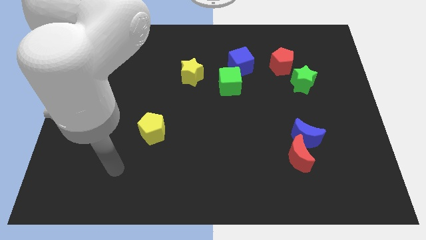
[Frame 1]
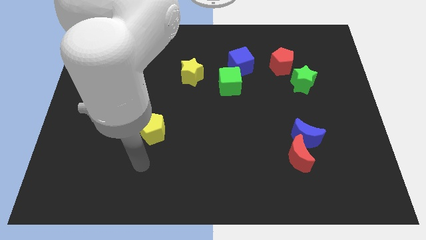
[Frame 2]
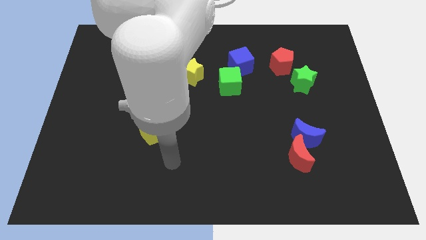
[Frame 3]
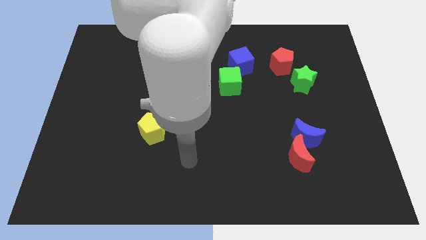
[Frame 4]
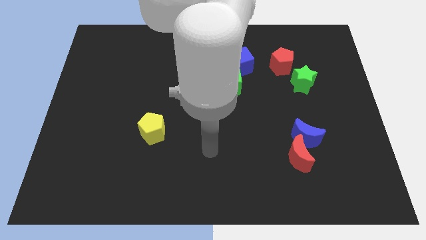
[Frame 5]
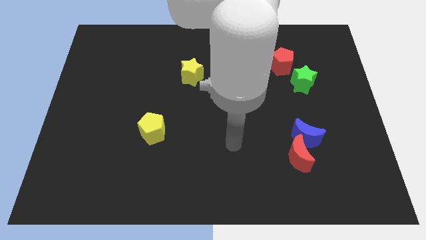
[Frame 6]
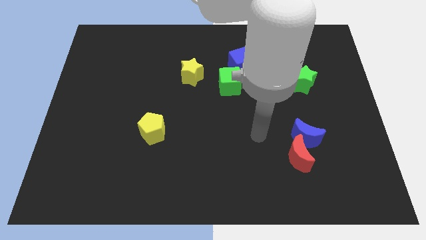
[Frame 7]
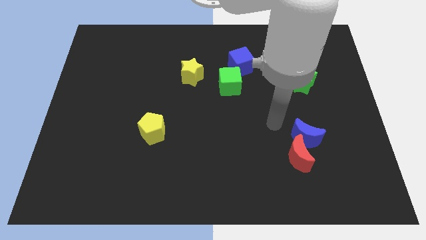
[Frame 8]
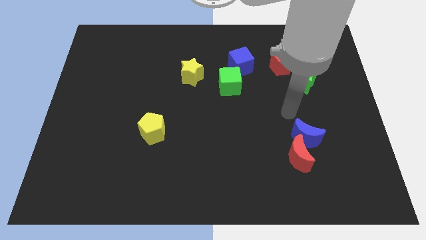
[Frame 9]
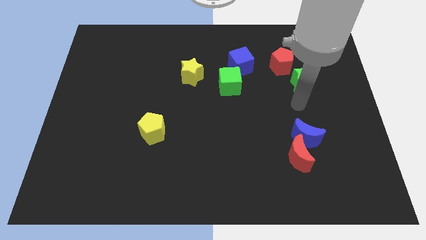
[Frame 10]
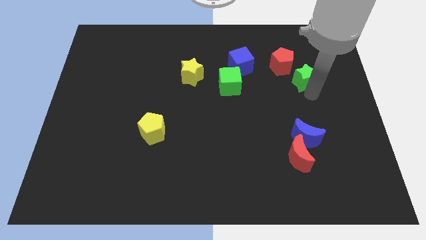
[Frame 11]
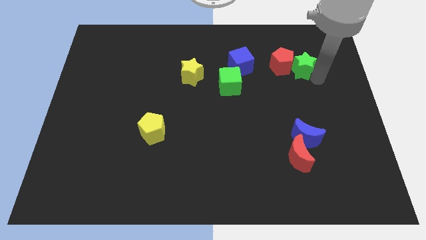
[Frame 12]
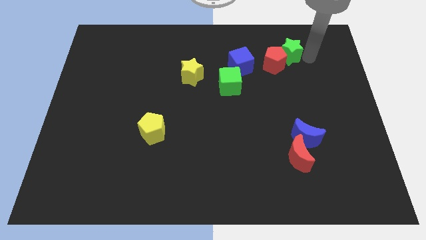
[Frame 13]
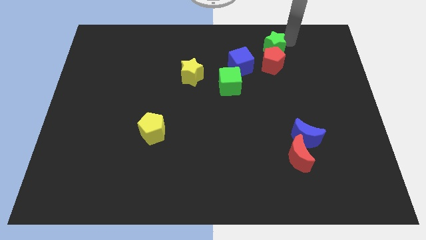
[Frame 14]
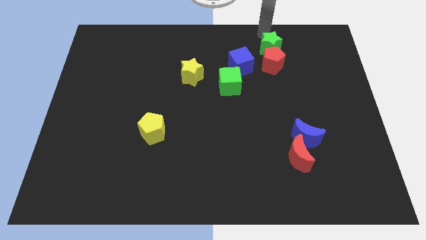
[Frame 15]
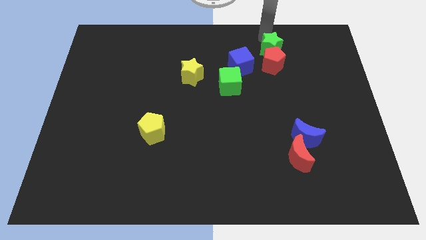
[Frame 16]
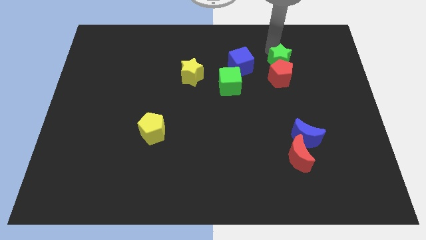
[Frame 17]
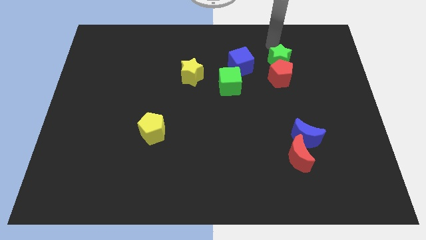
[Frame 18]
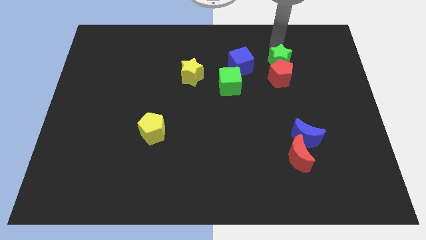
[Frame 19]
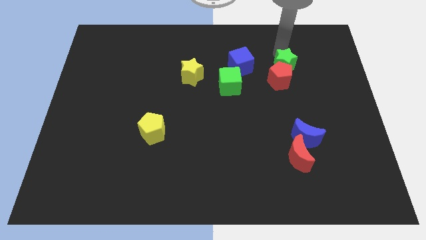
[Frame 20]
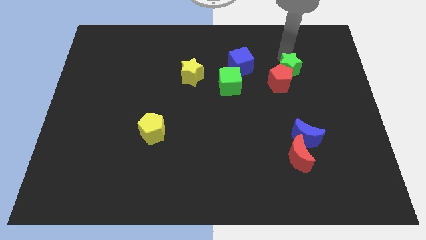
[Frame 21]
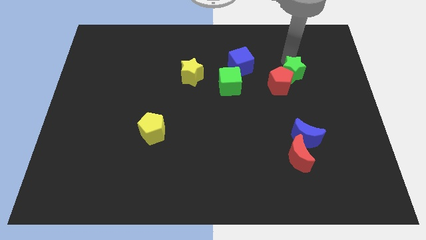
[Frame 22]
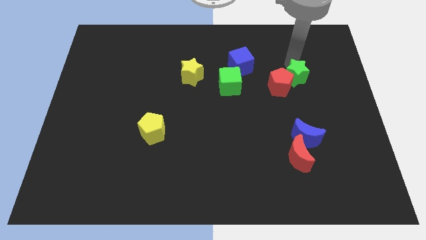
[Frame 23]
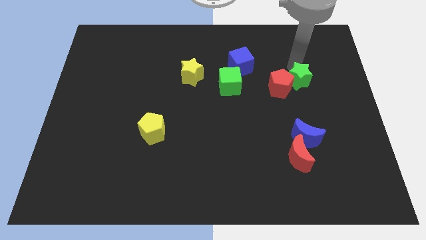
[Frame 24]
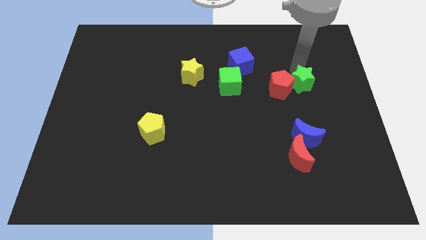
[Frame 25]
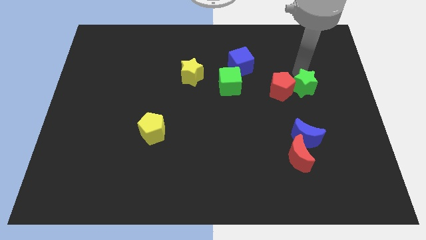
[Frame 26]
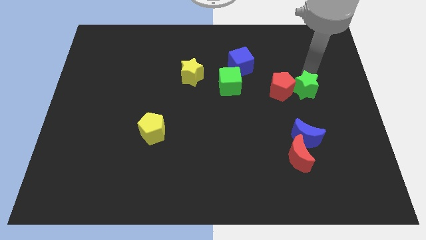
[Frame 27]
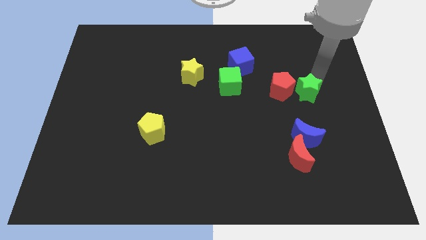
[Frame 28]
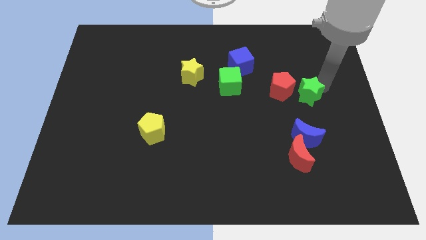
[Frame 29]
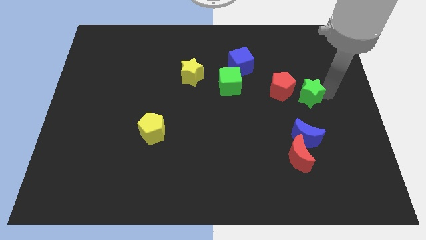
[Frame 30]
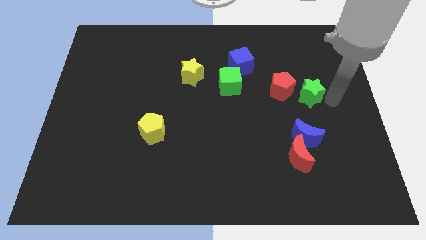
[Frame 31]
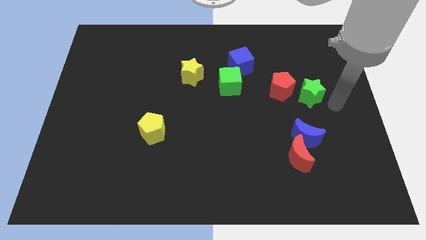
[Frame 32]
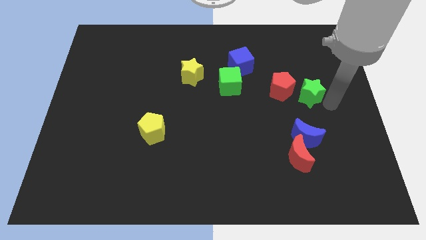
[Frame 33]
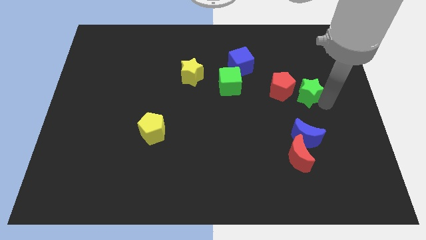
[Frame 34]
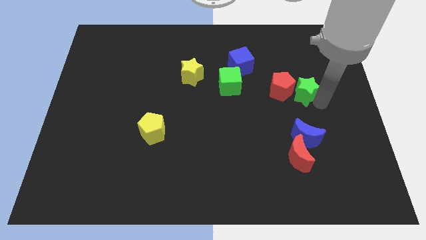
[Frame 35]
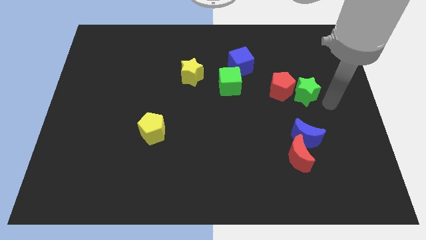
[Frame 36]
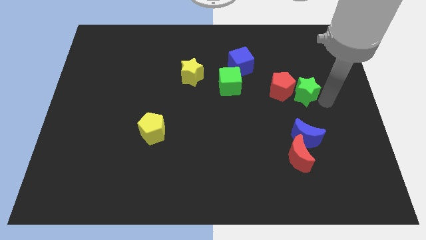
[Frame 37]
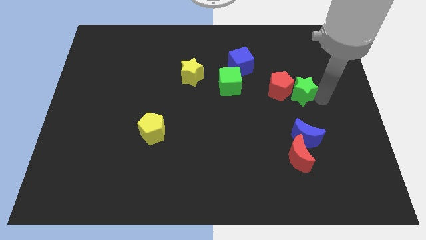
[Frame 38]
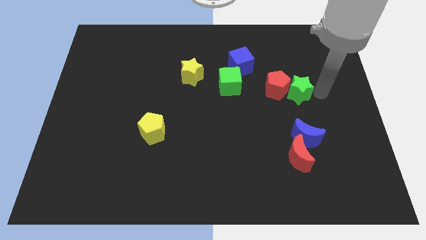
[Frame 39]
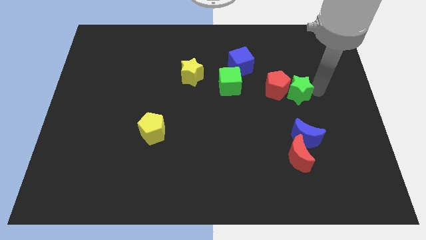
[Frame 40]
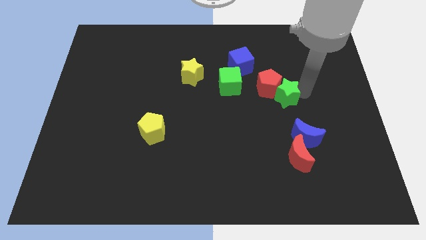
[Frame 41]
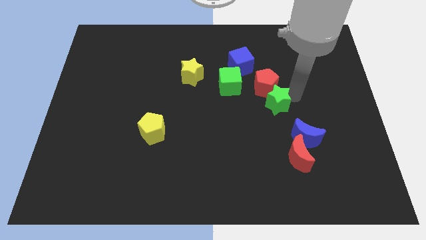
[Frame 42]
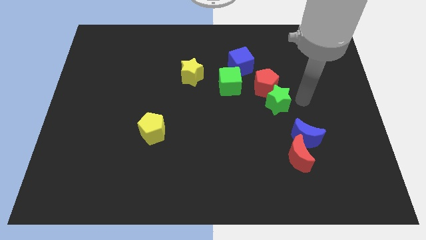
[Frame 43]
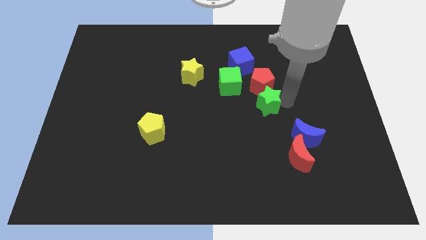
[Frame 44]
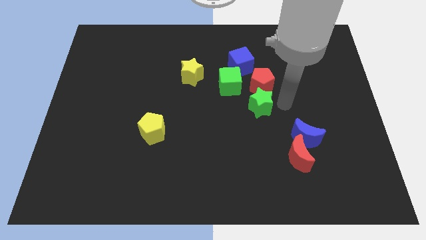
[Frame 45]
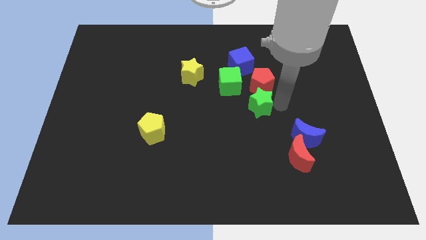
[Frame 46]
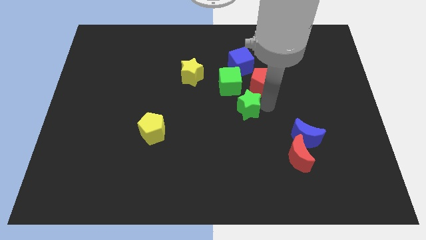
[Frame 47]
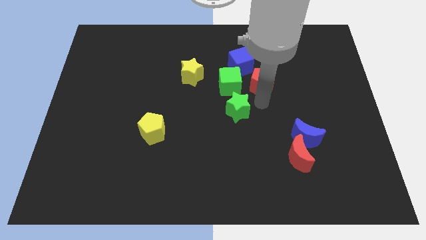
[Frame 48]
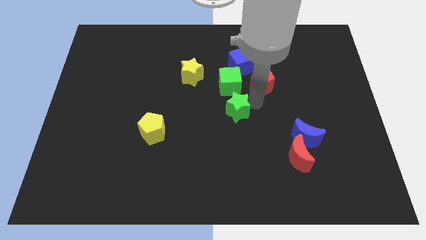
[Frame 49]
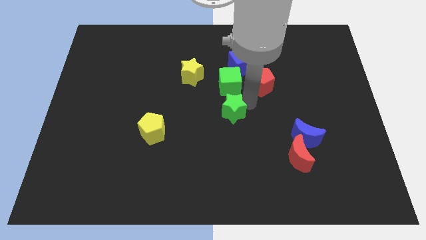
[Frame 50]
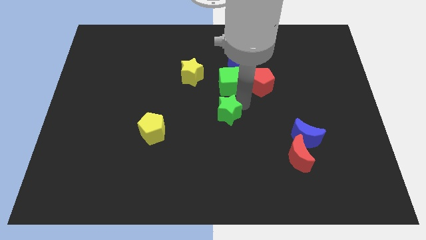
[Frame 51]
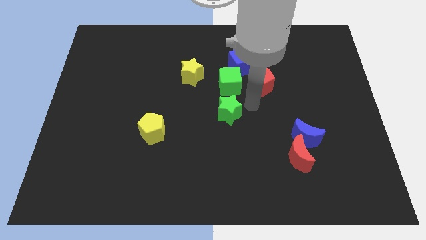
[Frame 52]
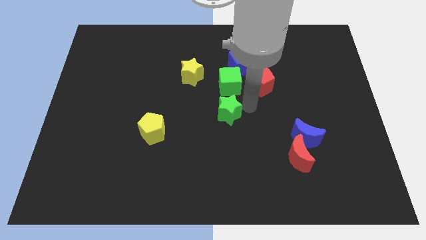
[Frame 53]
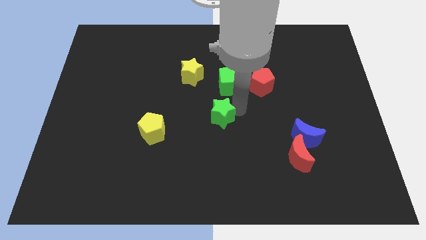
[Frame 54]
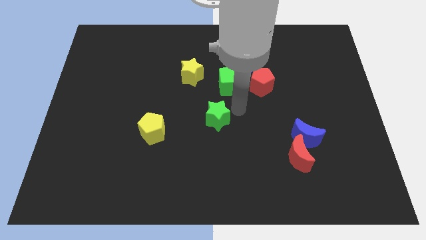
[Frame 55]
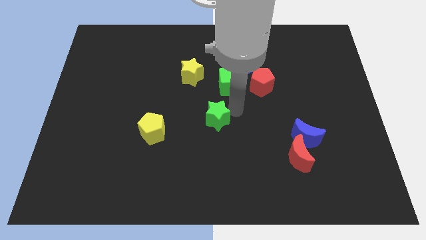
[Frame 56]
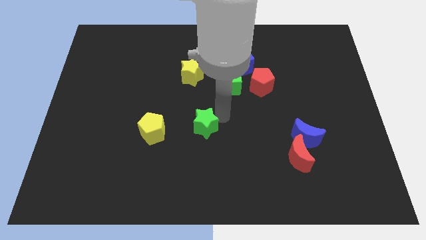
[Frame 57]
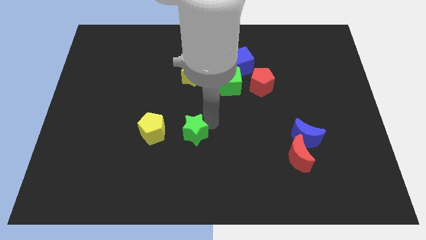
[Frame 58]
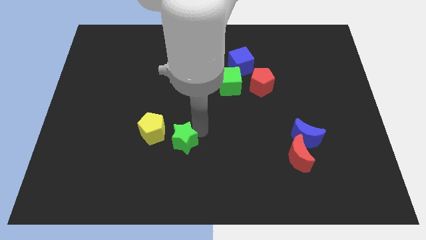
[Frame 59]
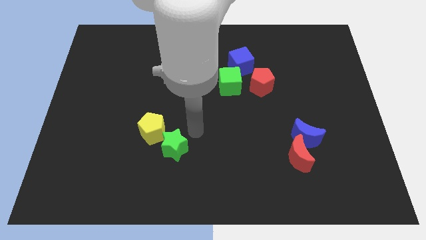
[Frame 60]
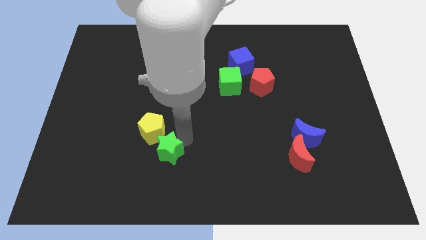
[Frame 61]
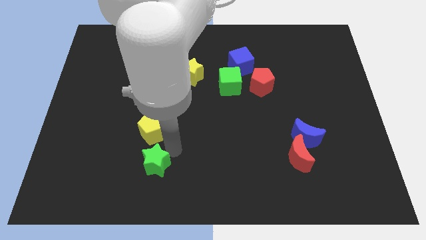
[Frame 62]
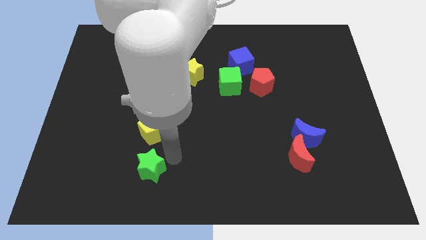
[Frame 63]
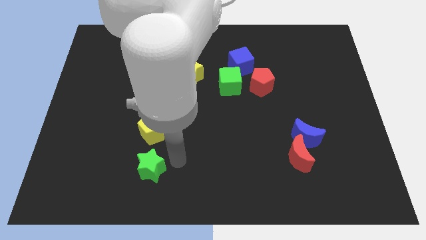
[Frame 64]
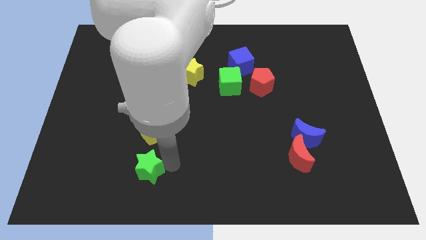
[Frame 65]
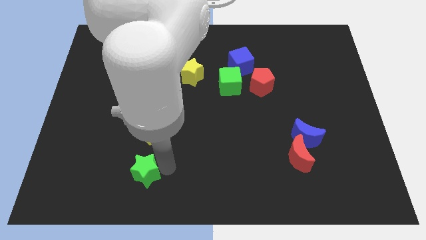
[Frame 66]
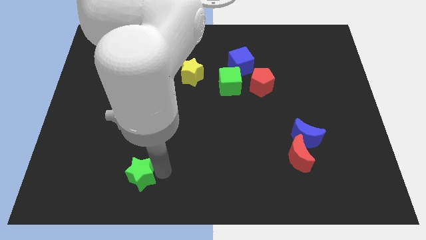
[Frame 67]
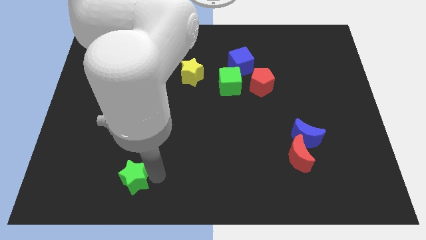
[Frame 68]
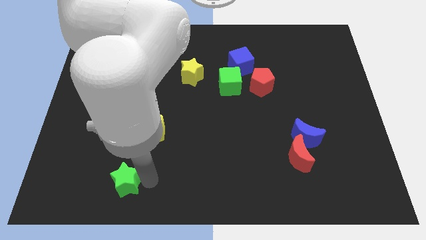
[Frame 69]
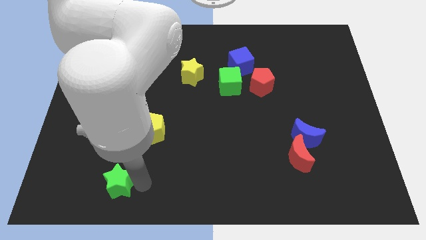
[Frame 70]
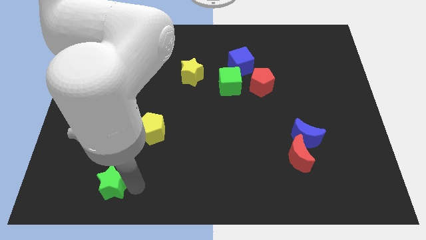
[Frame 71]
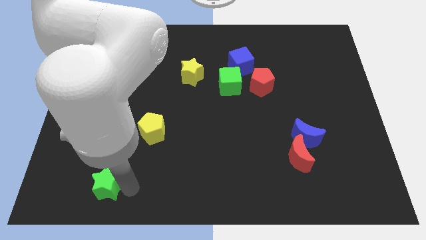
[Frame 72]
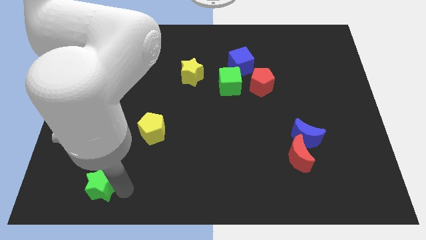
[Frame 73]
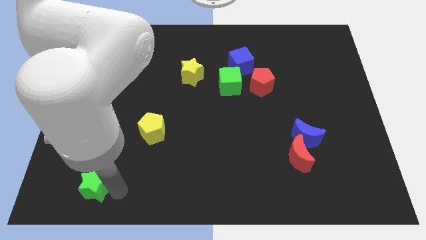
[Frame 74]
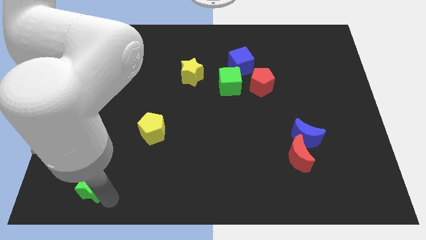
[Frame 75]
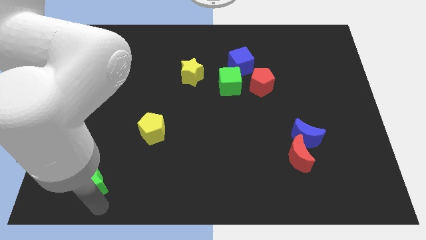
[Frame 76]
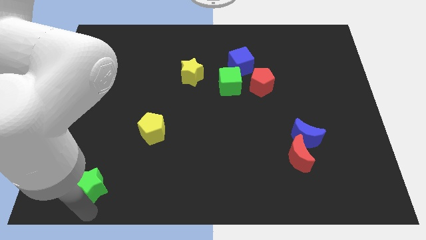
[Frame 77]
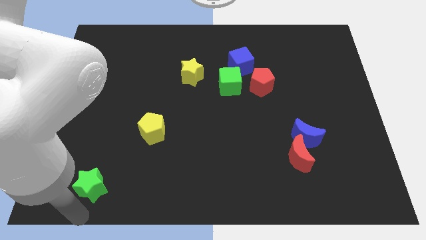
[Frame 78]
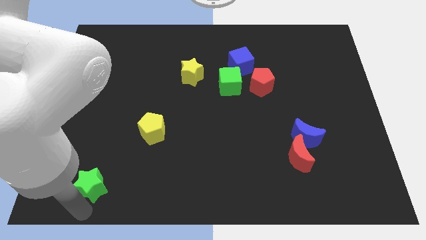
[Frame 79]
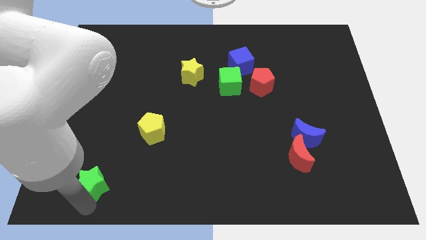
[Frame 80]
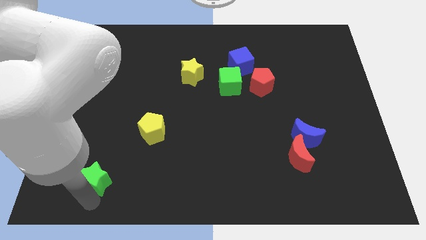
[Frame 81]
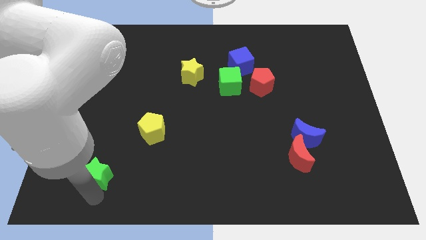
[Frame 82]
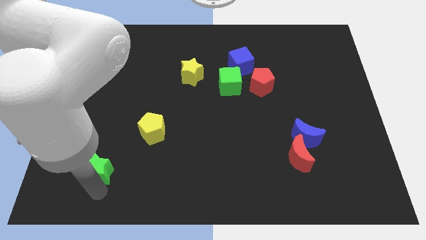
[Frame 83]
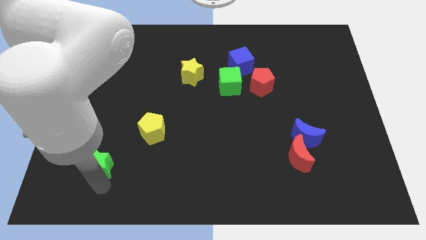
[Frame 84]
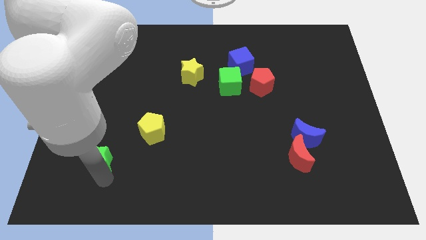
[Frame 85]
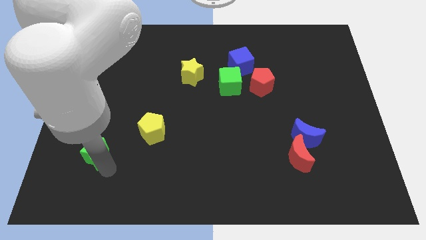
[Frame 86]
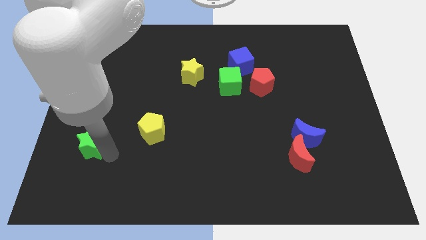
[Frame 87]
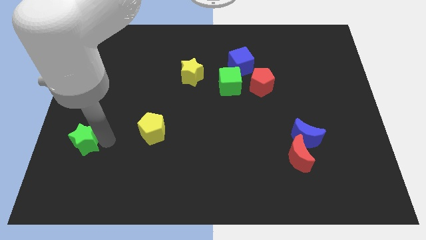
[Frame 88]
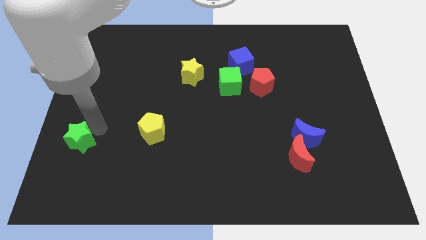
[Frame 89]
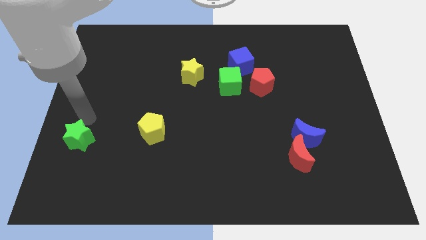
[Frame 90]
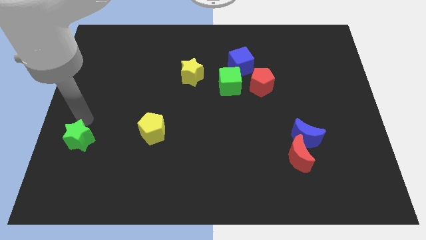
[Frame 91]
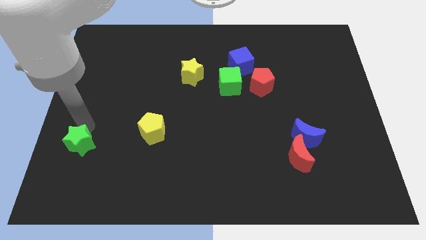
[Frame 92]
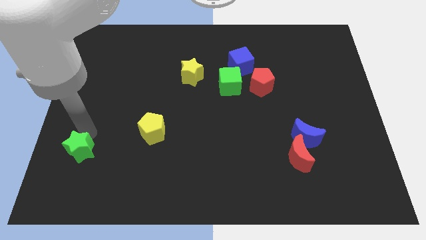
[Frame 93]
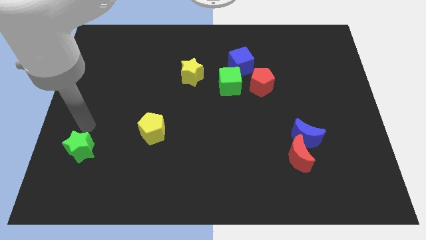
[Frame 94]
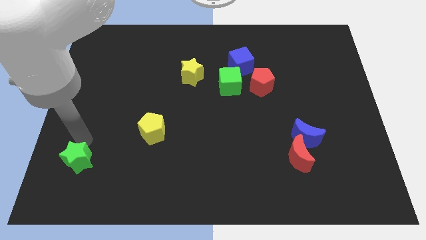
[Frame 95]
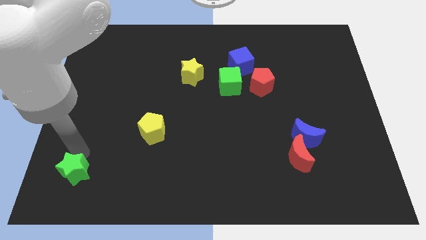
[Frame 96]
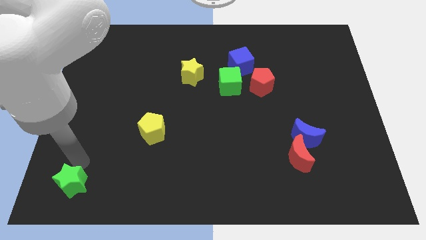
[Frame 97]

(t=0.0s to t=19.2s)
move the green star to the lower left corner
